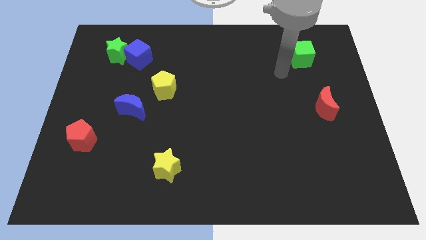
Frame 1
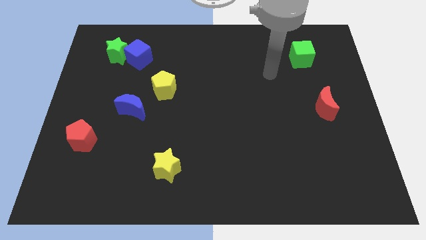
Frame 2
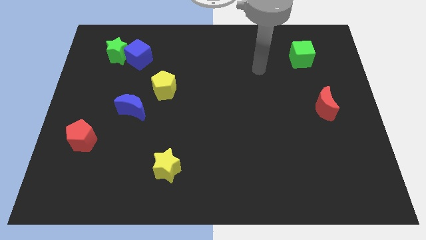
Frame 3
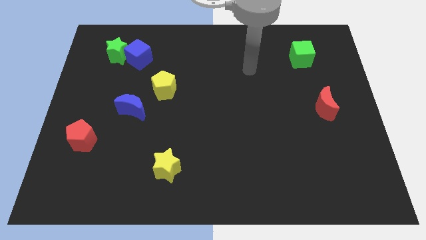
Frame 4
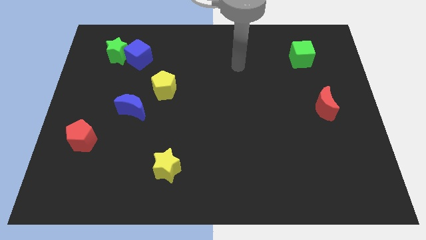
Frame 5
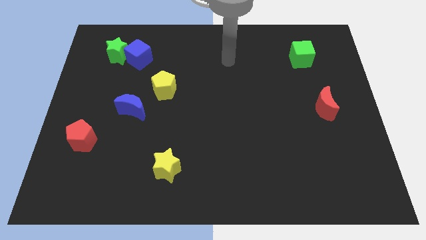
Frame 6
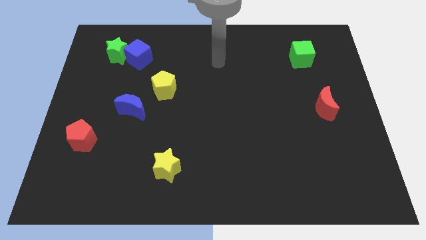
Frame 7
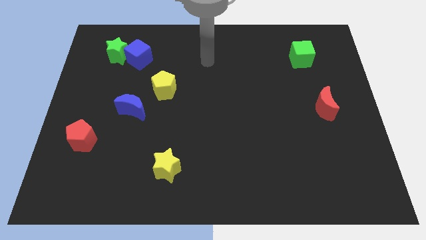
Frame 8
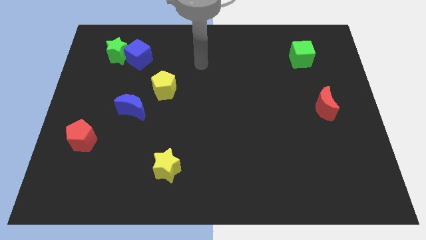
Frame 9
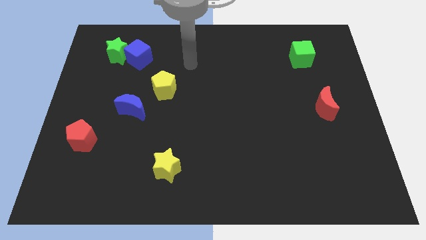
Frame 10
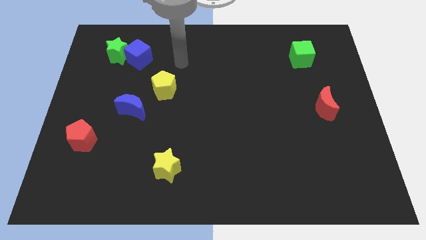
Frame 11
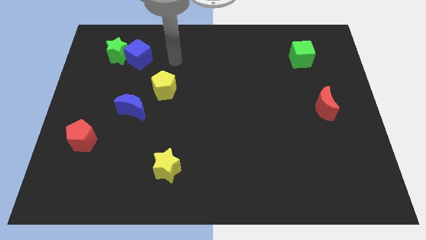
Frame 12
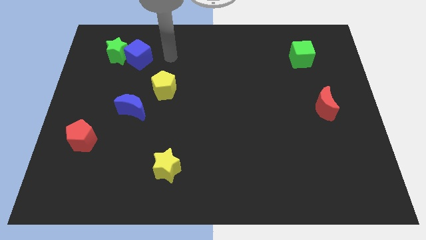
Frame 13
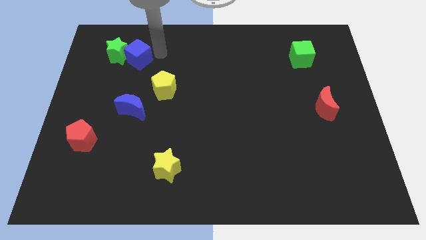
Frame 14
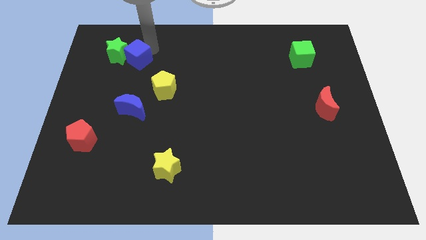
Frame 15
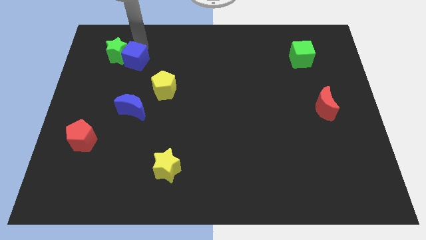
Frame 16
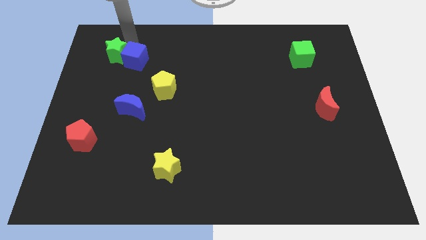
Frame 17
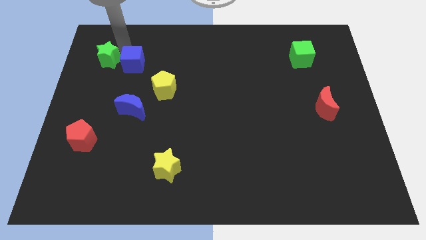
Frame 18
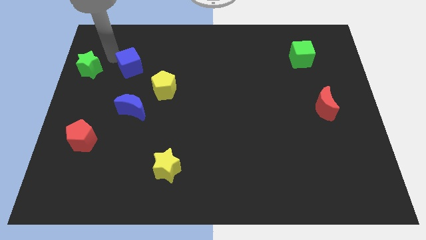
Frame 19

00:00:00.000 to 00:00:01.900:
move the blue cube away from the green star

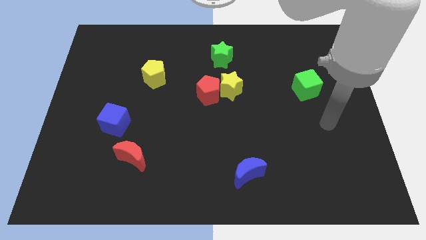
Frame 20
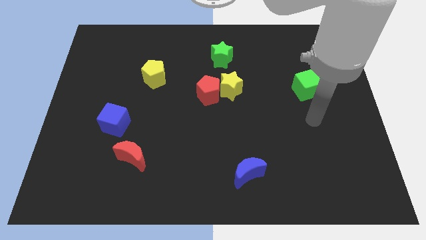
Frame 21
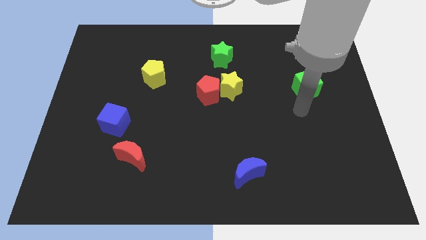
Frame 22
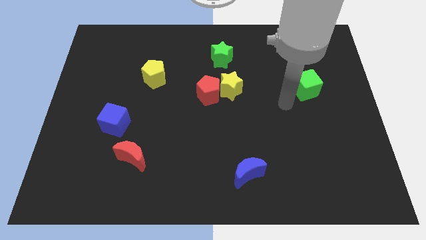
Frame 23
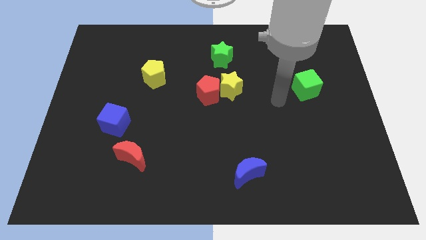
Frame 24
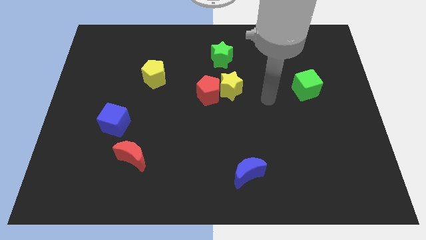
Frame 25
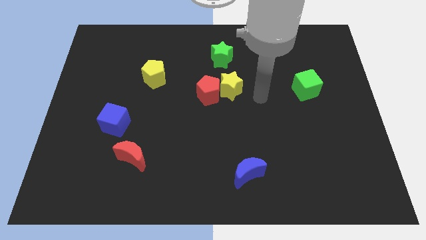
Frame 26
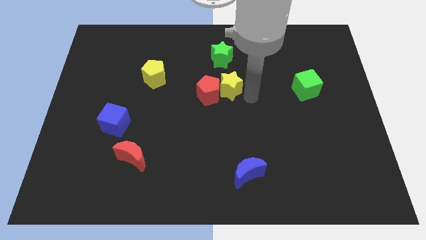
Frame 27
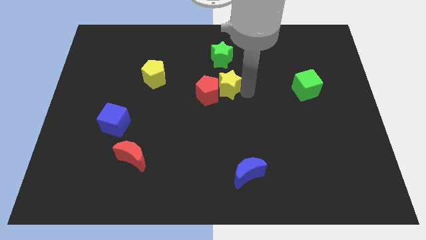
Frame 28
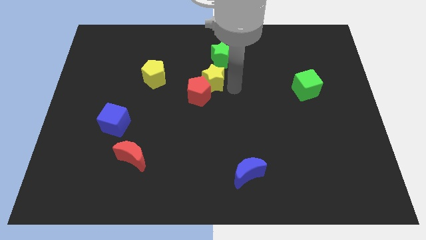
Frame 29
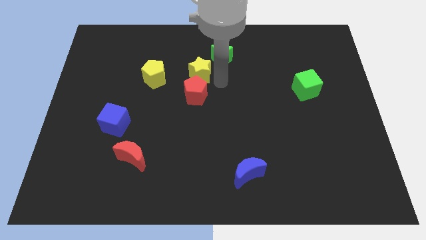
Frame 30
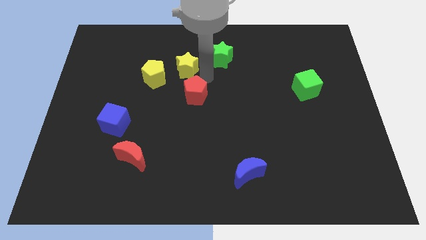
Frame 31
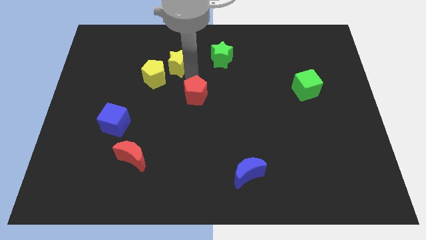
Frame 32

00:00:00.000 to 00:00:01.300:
move the red pentagon away from the yellow star

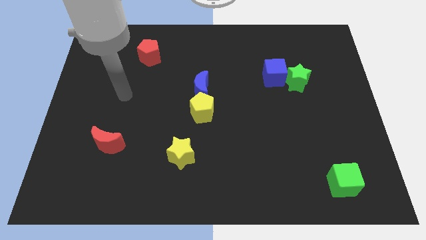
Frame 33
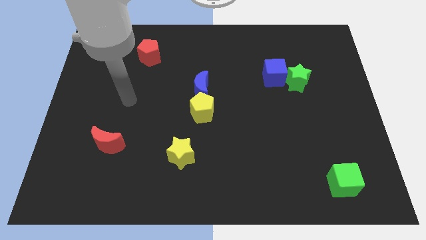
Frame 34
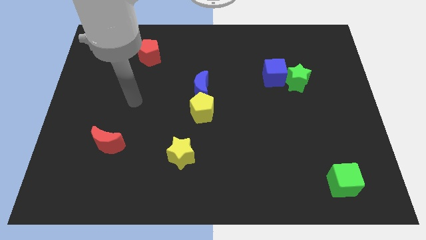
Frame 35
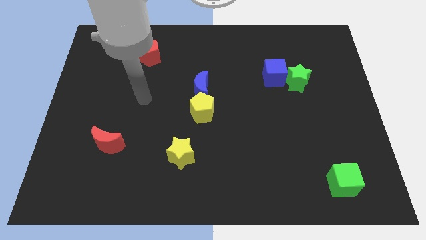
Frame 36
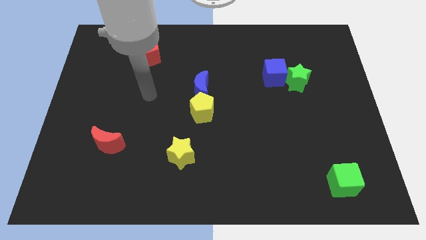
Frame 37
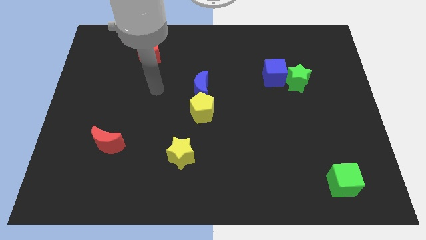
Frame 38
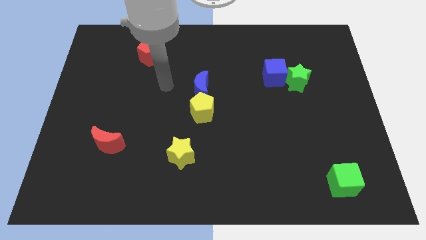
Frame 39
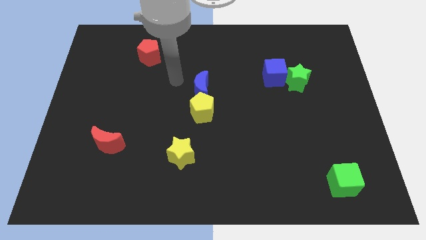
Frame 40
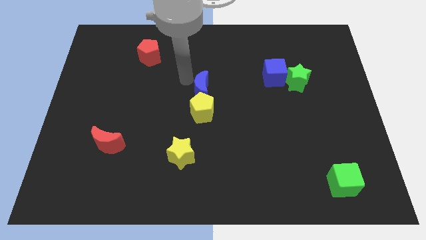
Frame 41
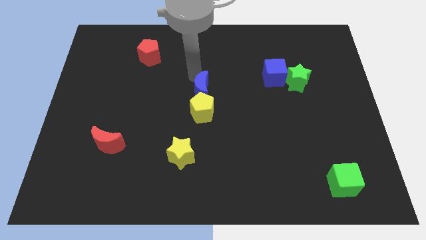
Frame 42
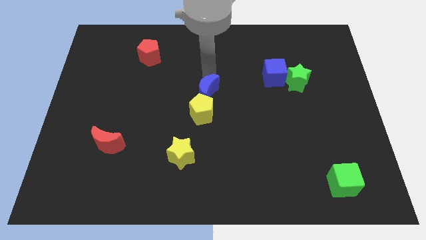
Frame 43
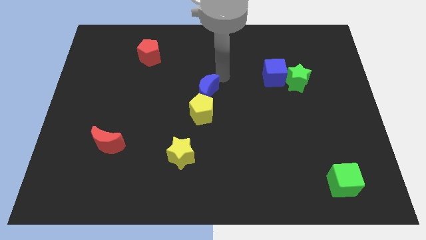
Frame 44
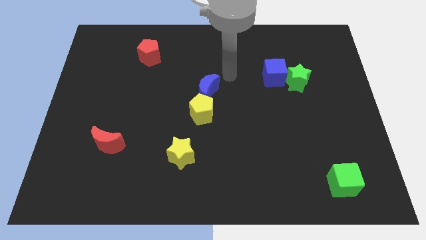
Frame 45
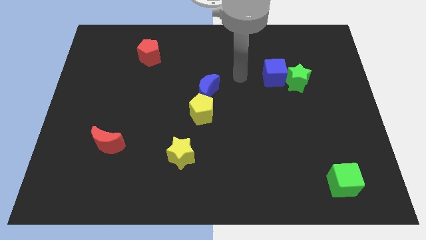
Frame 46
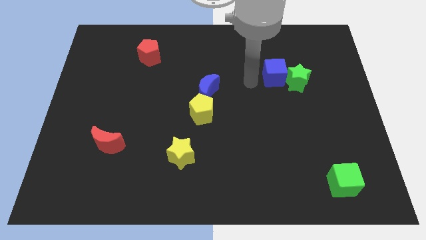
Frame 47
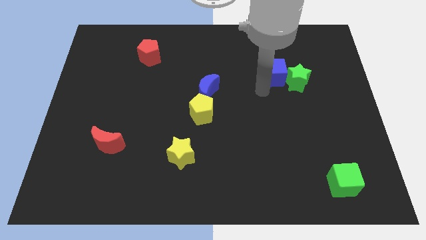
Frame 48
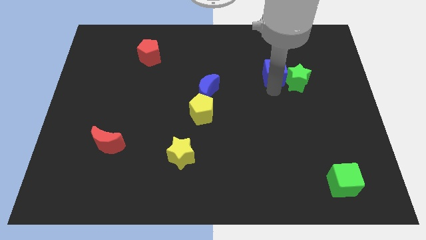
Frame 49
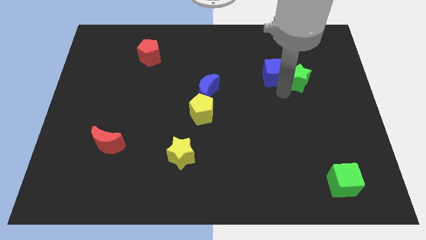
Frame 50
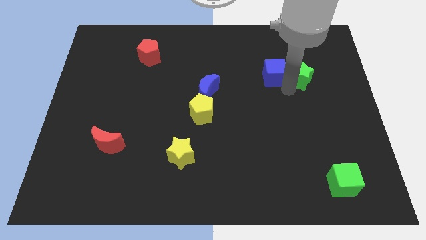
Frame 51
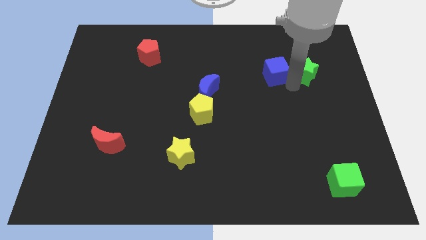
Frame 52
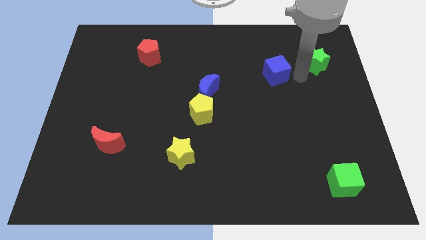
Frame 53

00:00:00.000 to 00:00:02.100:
pull the blue cube apart from the green star

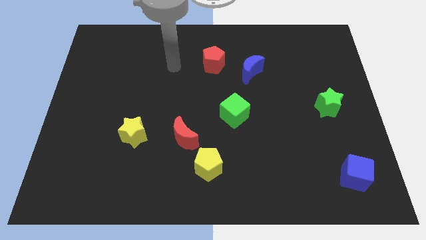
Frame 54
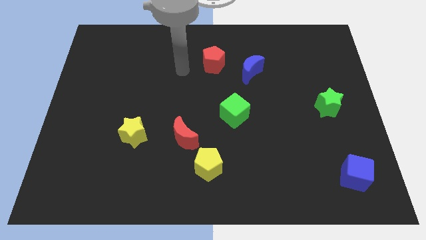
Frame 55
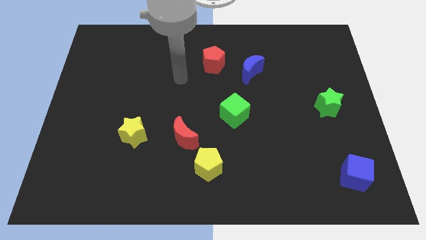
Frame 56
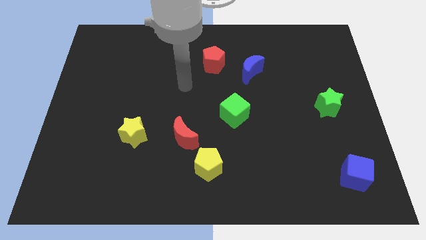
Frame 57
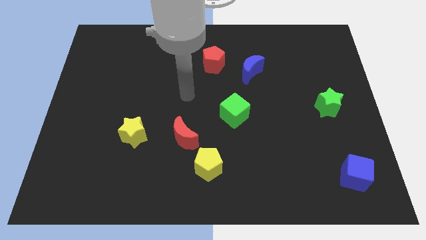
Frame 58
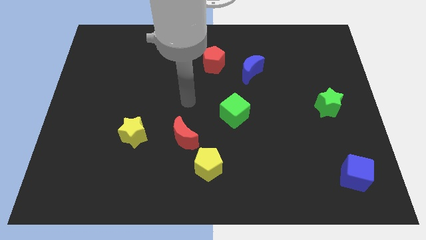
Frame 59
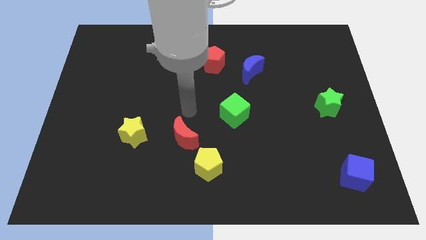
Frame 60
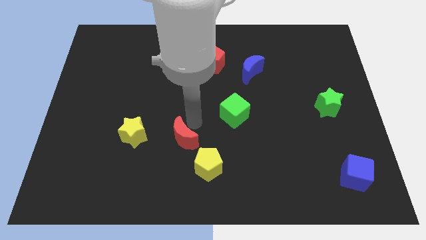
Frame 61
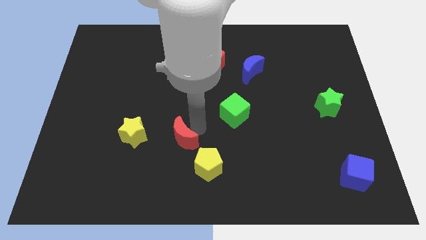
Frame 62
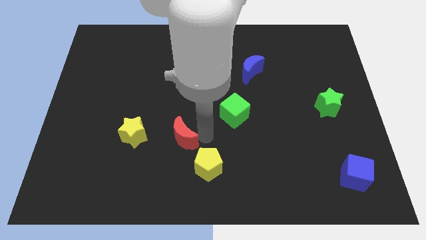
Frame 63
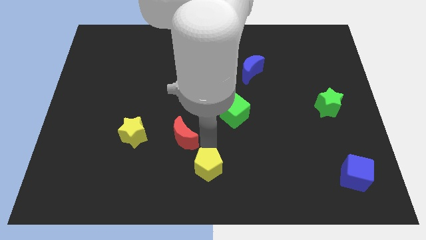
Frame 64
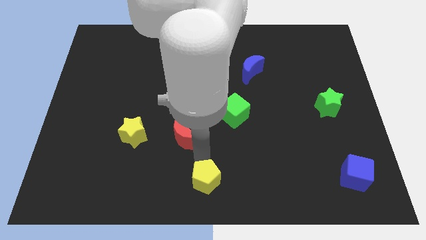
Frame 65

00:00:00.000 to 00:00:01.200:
separate the red moon from the yellow pentagon

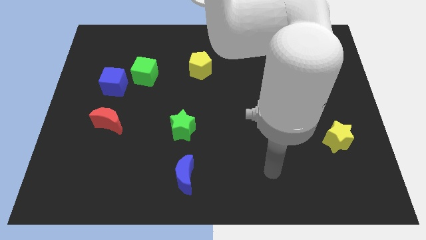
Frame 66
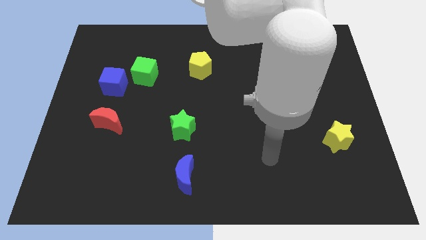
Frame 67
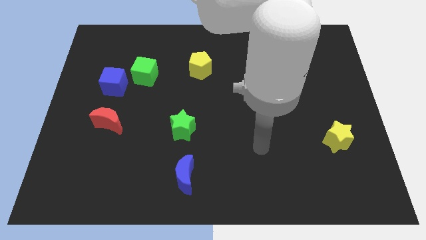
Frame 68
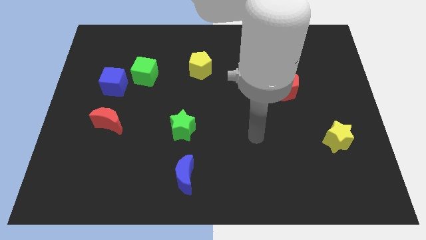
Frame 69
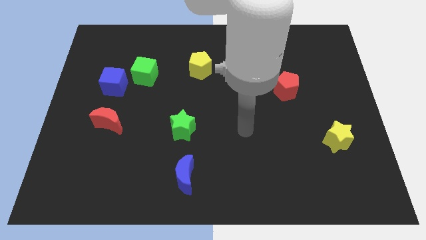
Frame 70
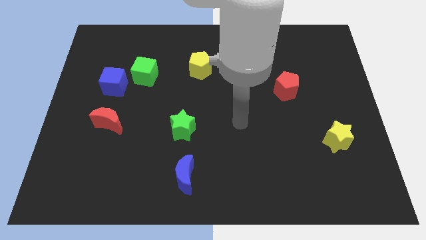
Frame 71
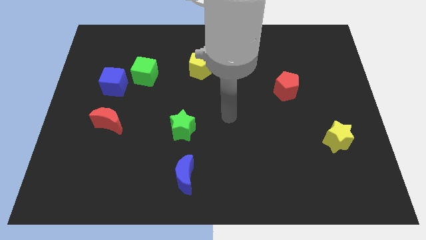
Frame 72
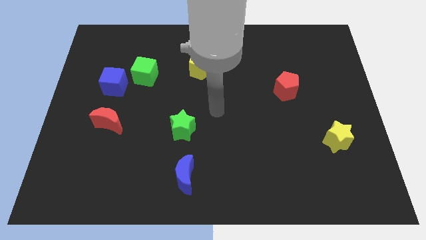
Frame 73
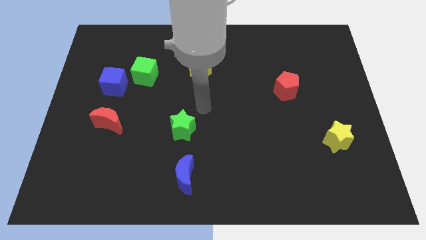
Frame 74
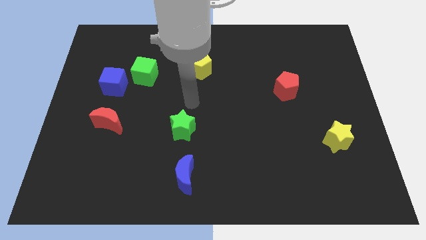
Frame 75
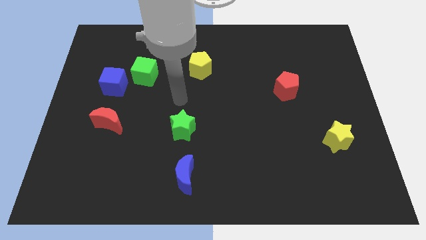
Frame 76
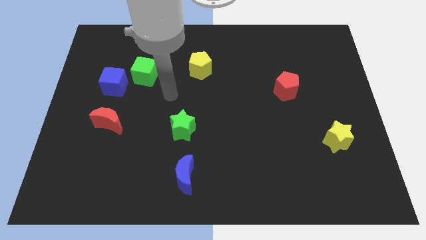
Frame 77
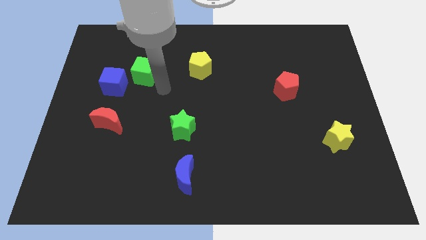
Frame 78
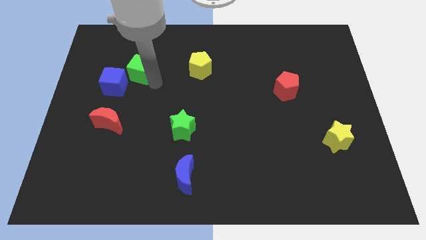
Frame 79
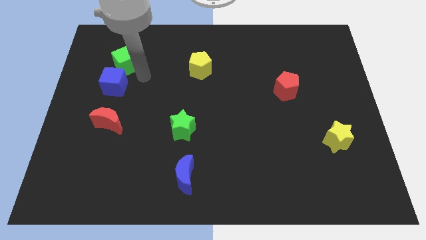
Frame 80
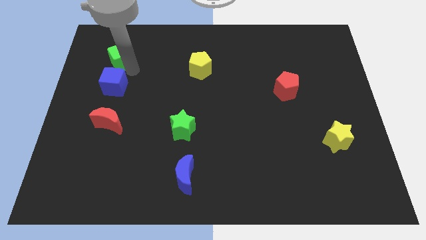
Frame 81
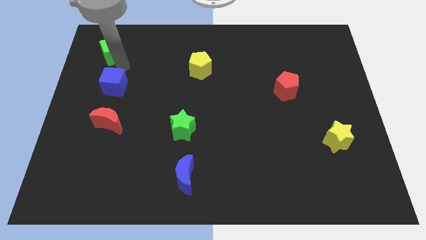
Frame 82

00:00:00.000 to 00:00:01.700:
separate the blue cube from the green cube

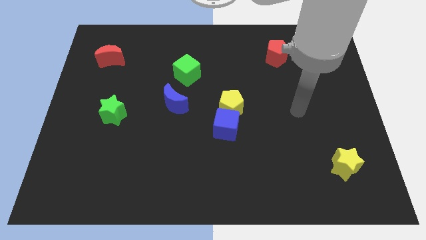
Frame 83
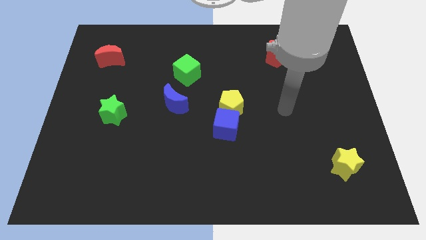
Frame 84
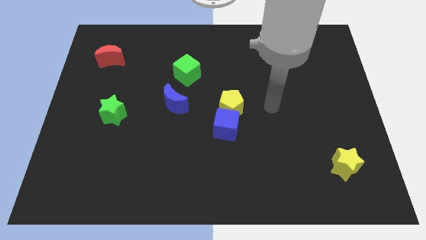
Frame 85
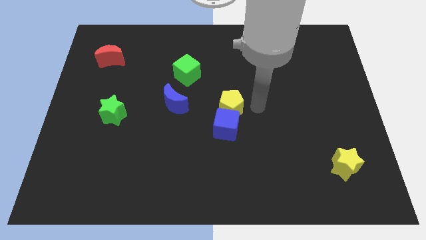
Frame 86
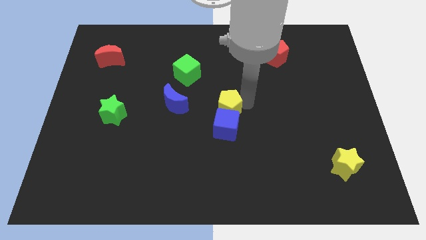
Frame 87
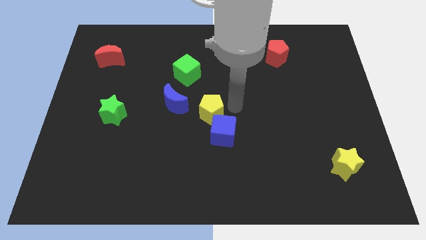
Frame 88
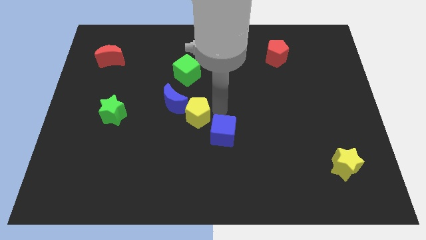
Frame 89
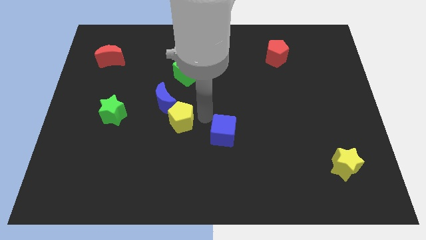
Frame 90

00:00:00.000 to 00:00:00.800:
separate the blue cube from the yellow pentagon

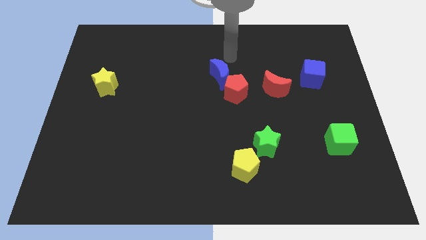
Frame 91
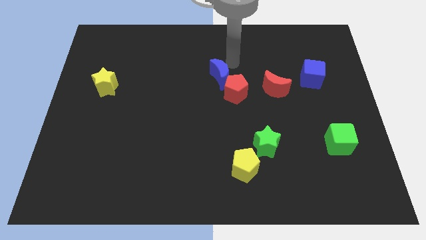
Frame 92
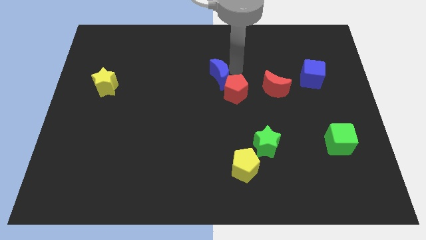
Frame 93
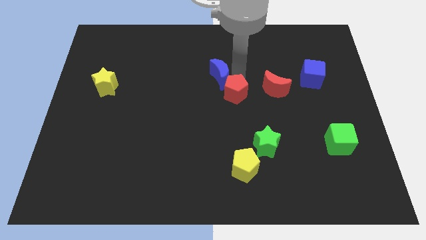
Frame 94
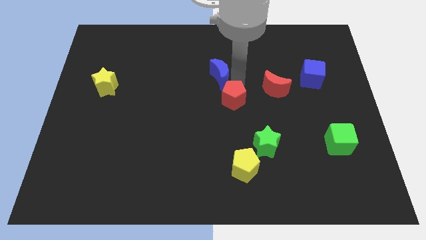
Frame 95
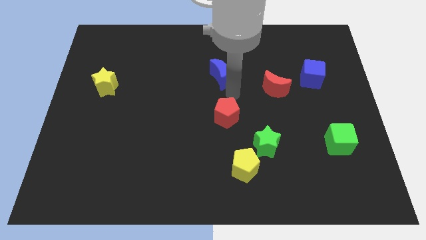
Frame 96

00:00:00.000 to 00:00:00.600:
separate the blue moon from the red pentagon
